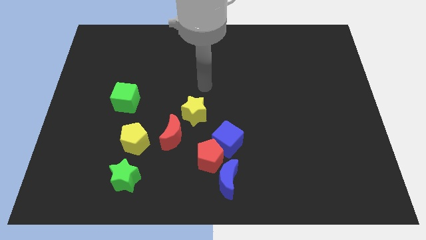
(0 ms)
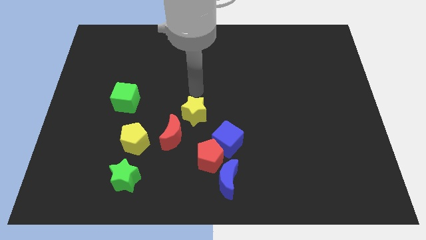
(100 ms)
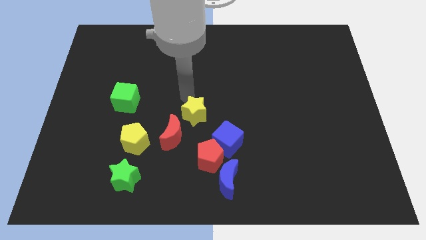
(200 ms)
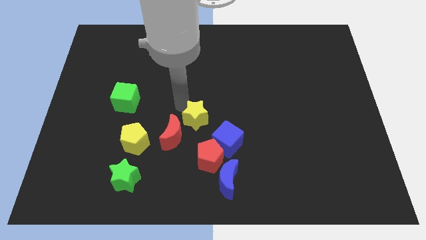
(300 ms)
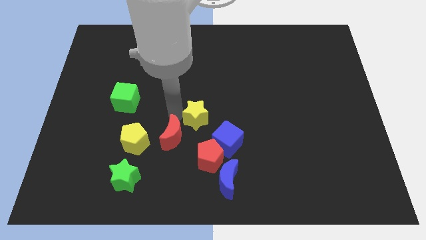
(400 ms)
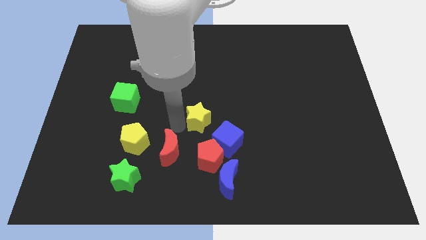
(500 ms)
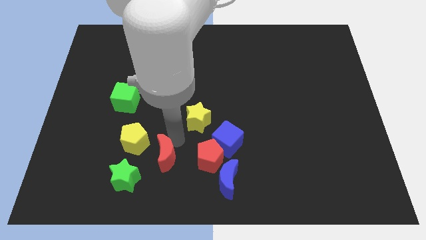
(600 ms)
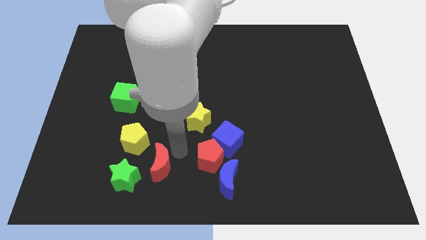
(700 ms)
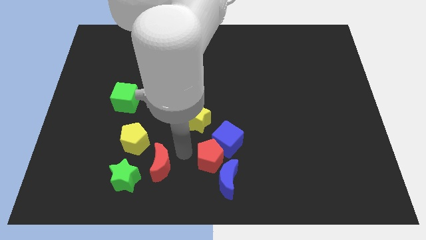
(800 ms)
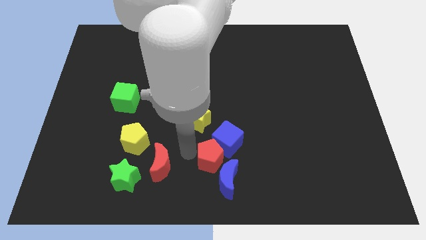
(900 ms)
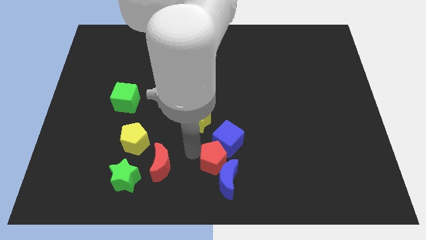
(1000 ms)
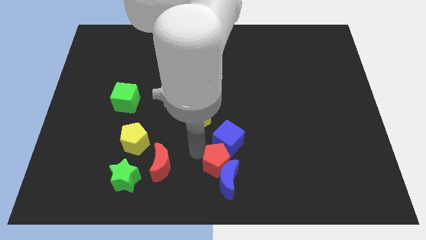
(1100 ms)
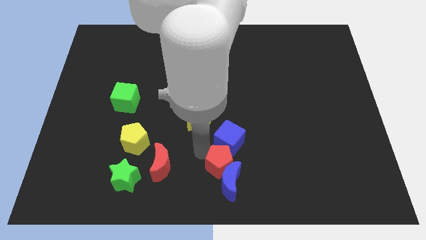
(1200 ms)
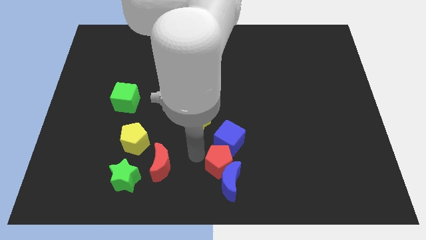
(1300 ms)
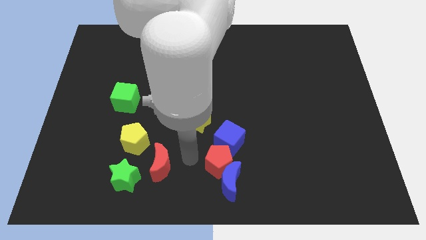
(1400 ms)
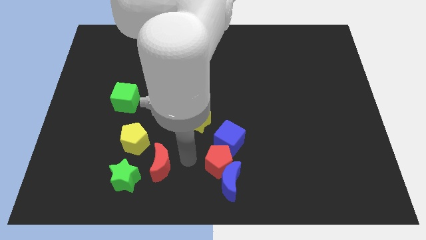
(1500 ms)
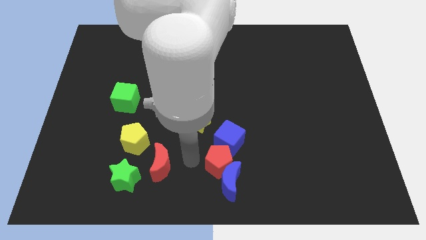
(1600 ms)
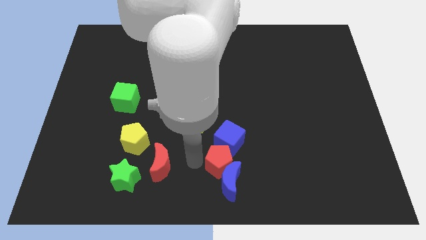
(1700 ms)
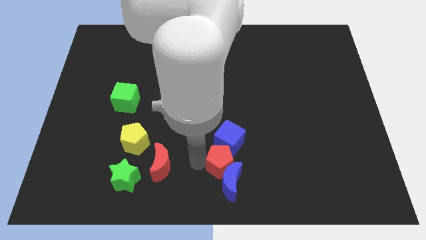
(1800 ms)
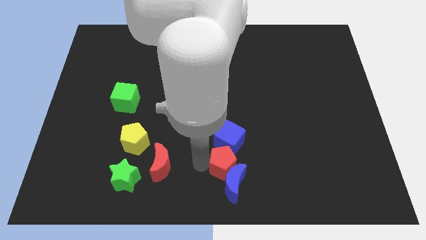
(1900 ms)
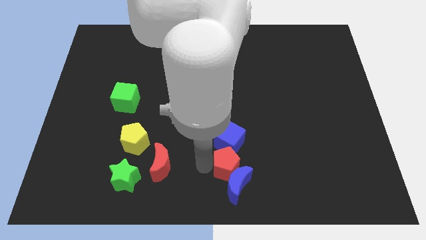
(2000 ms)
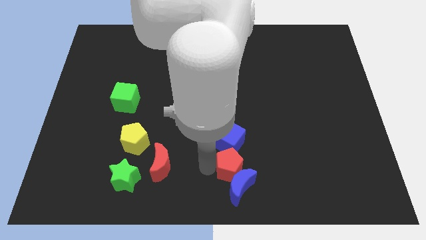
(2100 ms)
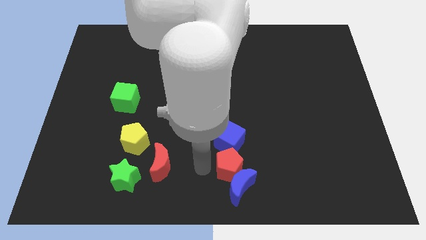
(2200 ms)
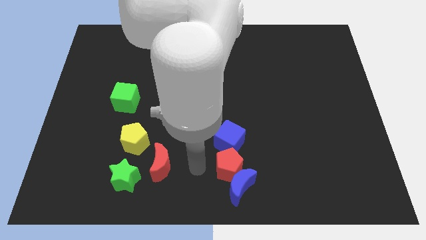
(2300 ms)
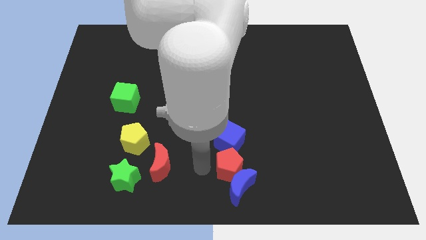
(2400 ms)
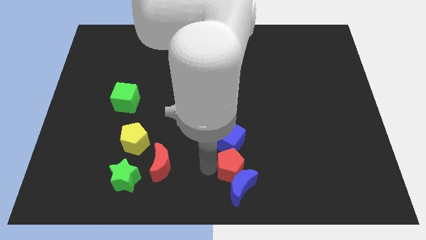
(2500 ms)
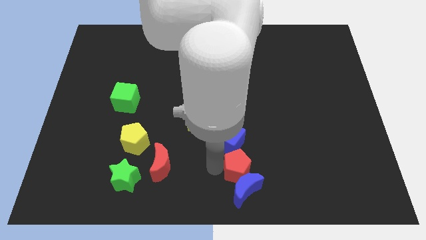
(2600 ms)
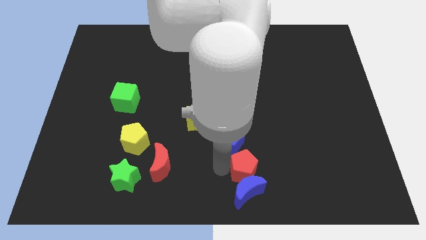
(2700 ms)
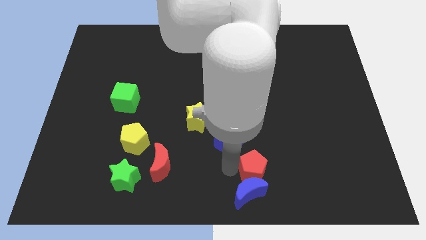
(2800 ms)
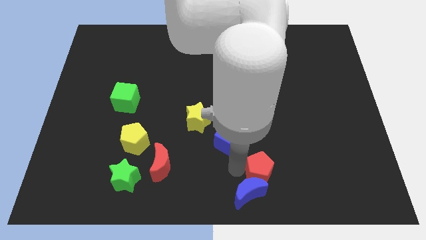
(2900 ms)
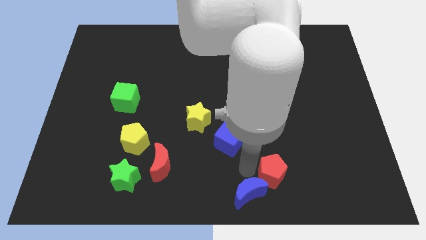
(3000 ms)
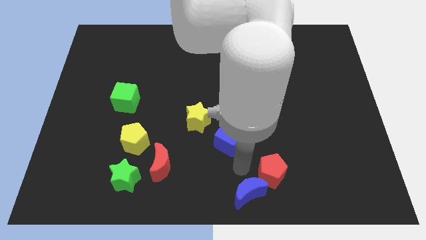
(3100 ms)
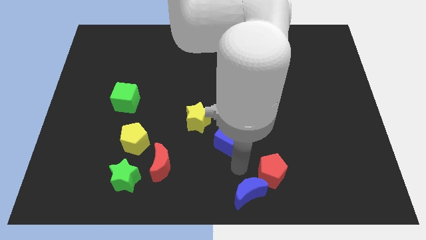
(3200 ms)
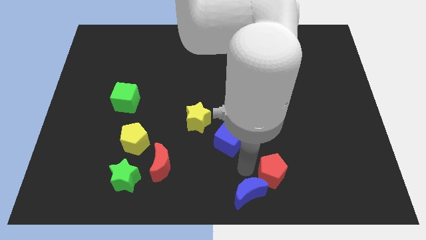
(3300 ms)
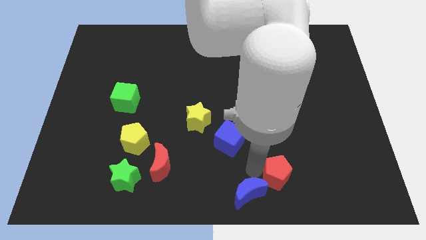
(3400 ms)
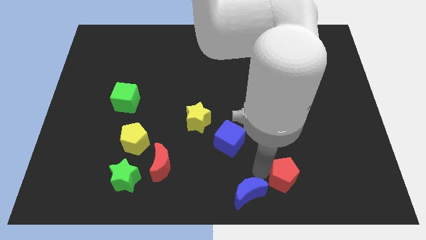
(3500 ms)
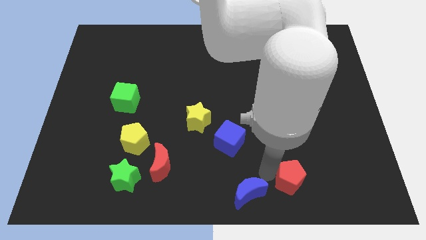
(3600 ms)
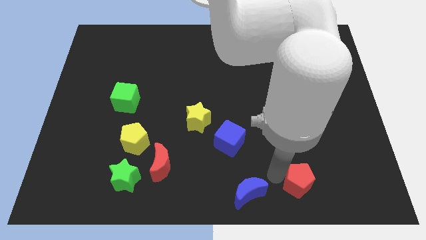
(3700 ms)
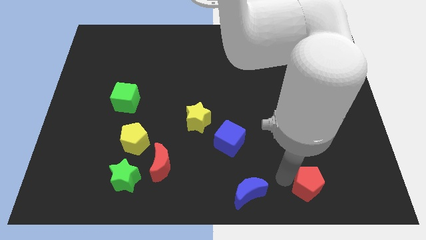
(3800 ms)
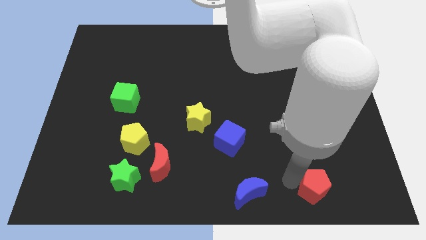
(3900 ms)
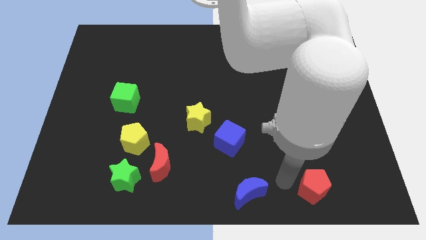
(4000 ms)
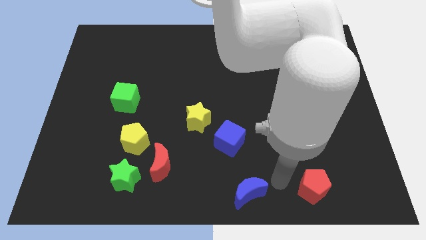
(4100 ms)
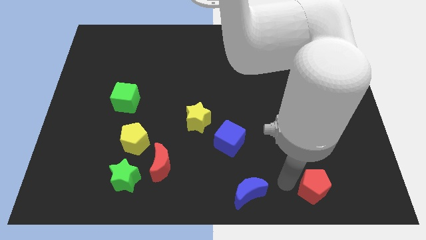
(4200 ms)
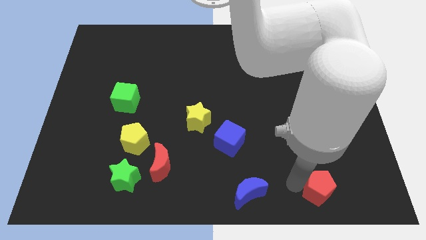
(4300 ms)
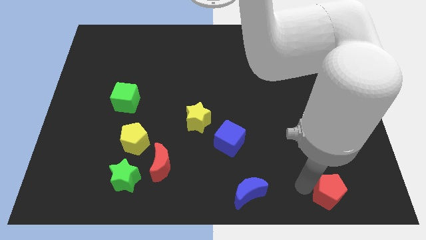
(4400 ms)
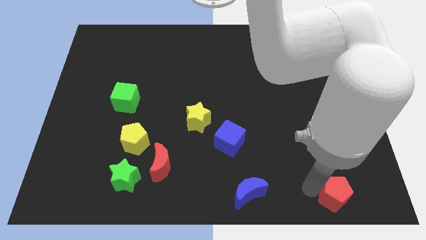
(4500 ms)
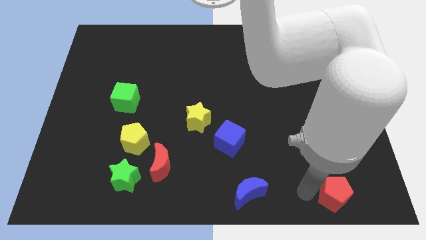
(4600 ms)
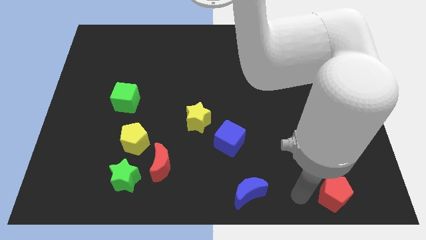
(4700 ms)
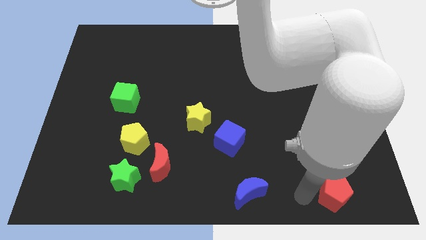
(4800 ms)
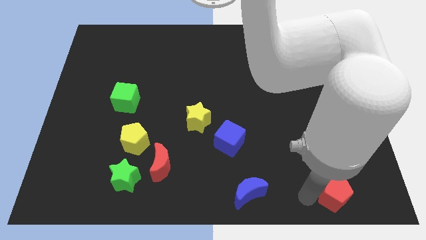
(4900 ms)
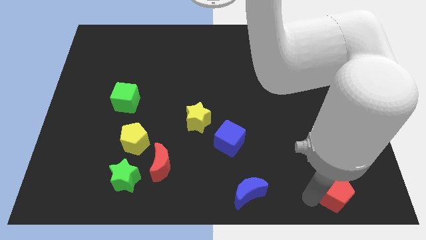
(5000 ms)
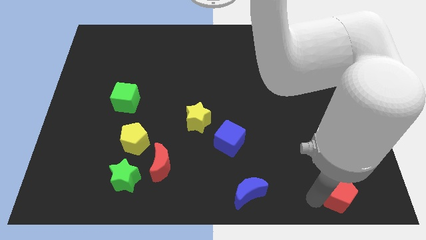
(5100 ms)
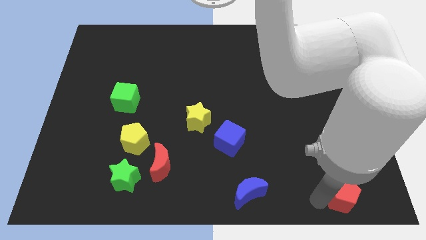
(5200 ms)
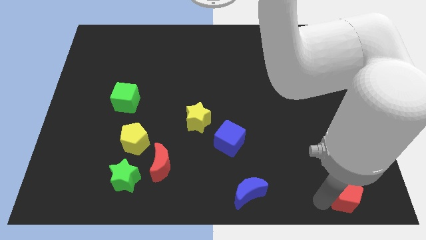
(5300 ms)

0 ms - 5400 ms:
move the red pentagon to the bottom right corner
